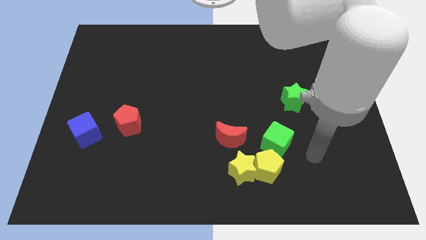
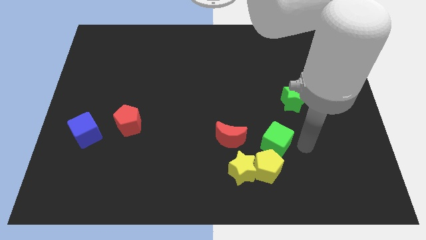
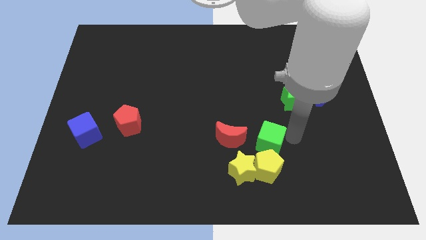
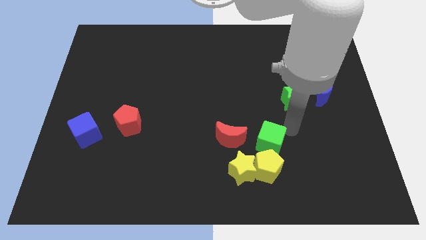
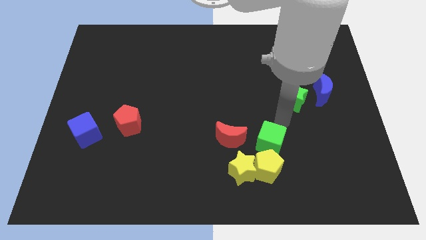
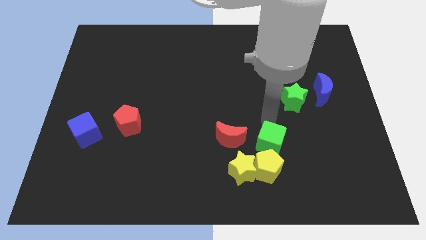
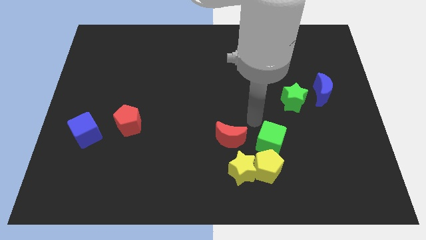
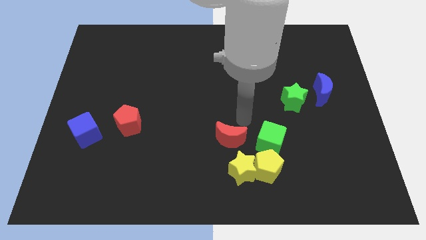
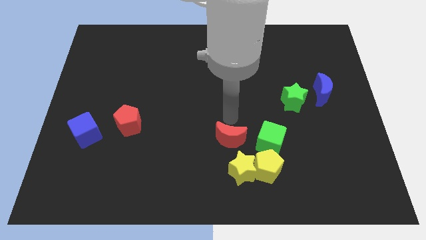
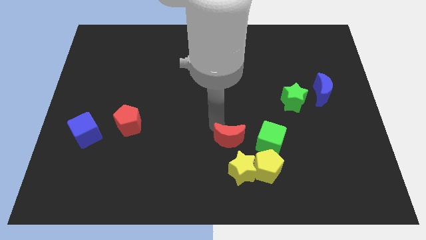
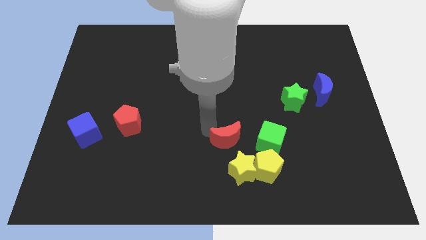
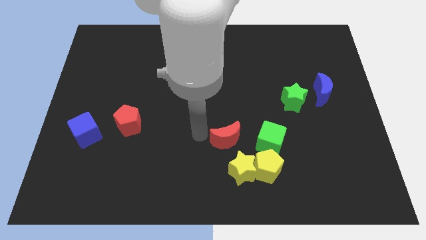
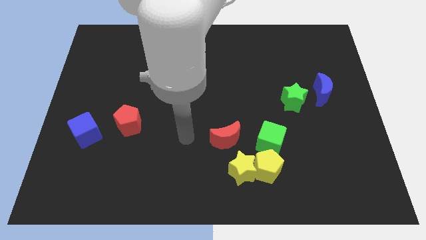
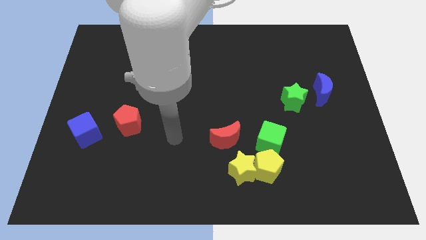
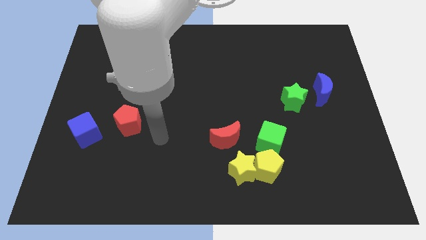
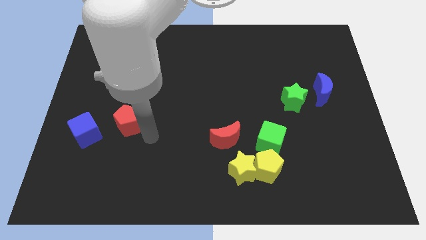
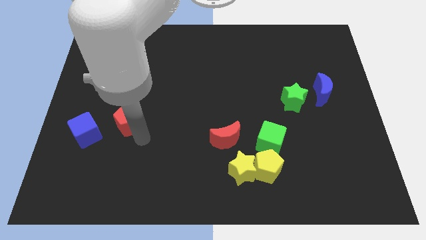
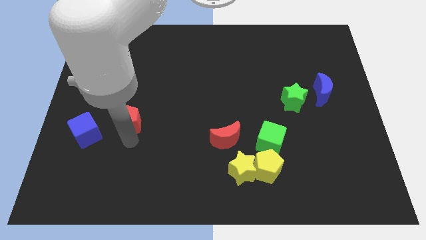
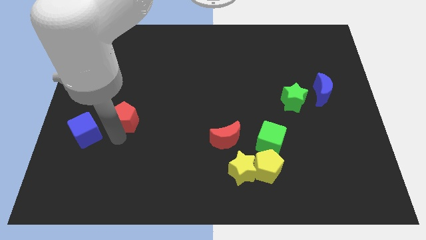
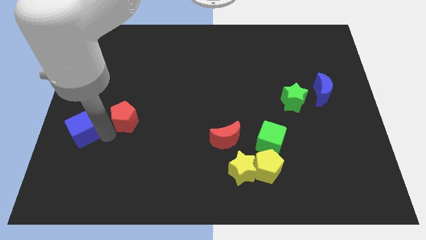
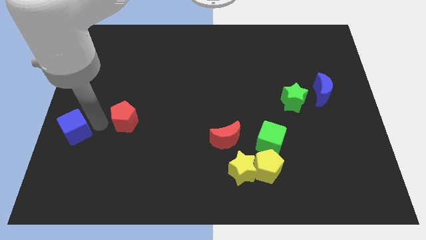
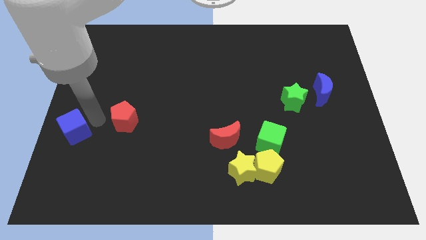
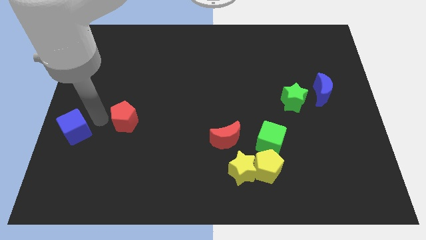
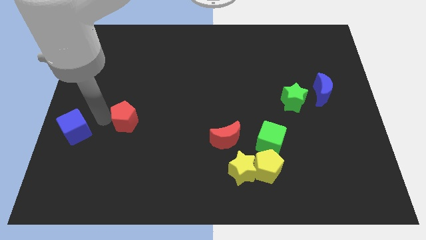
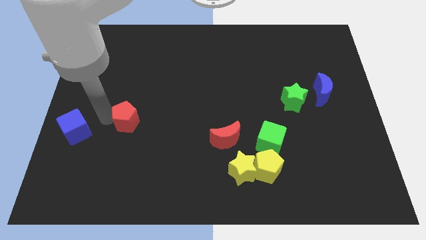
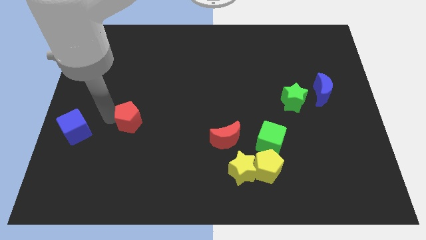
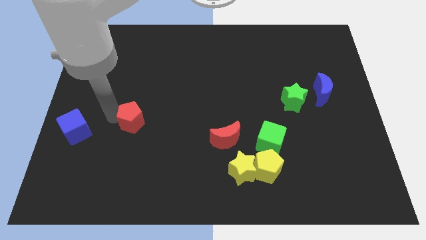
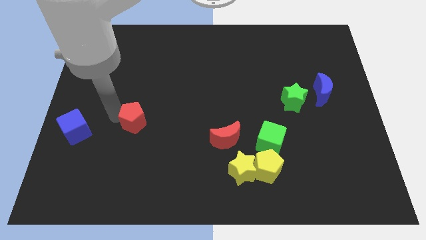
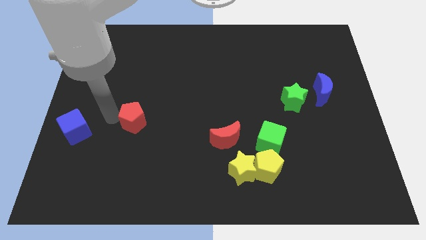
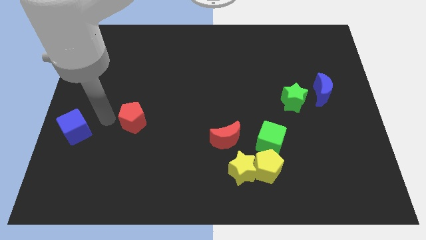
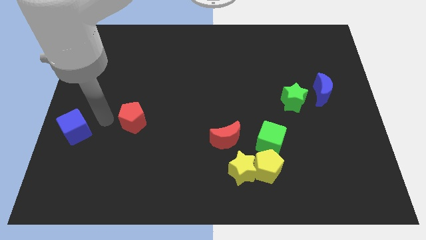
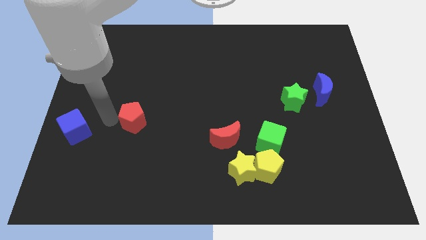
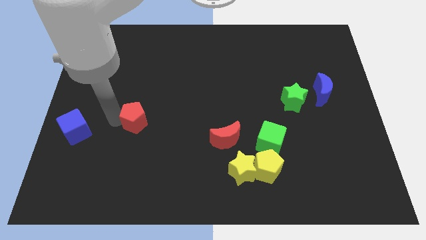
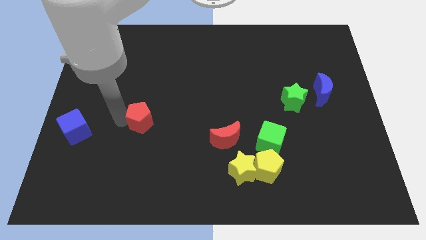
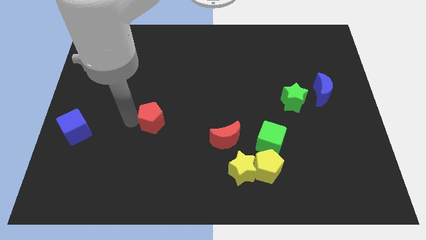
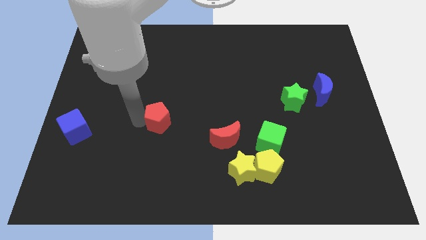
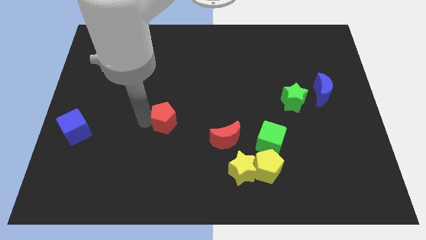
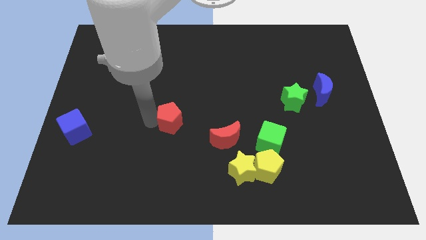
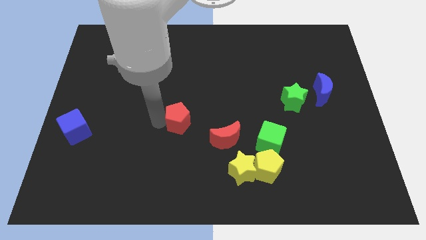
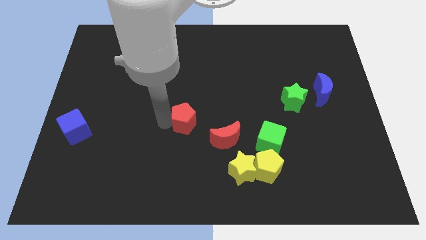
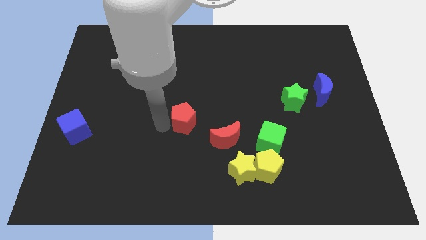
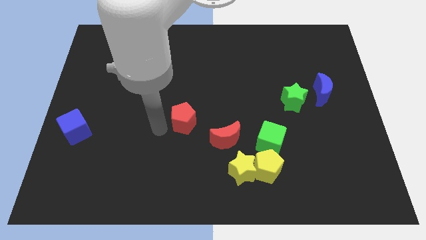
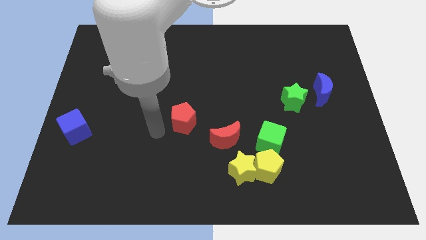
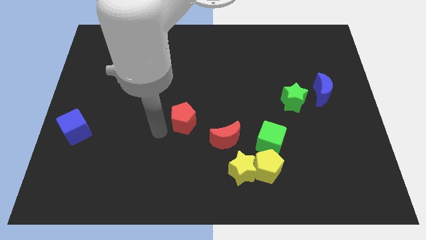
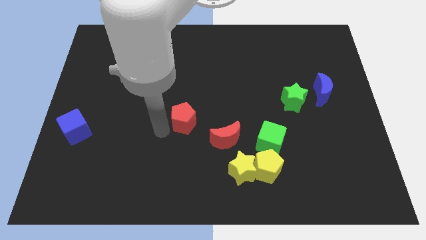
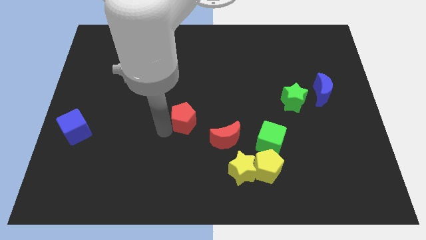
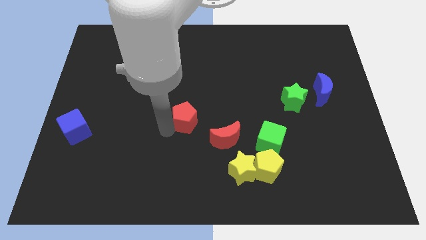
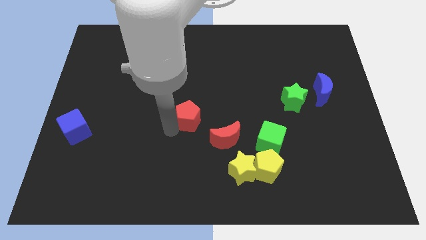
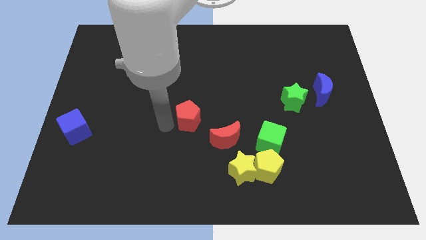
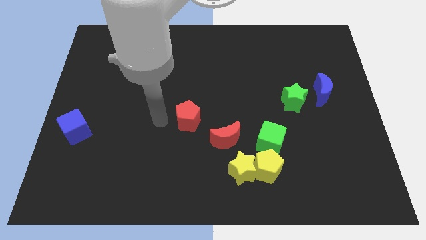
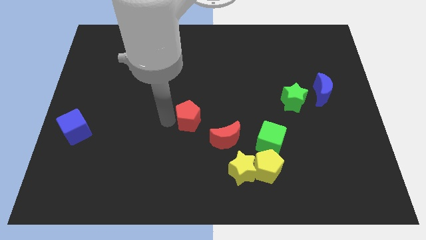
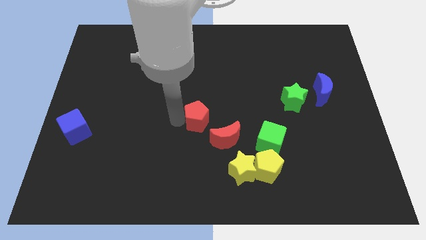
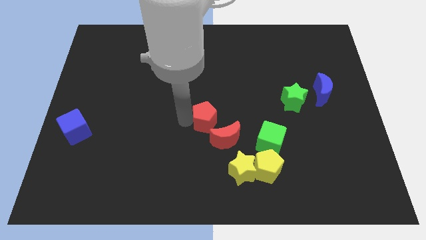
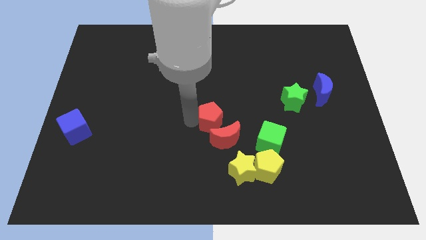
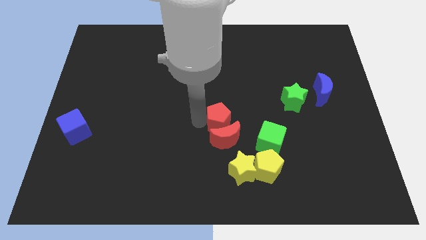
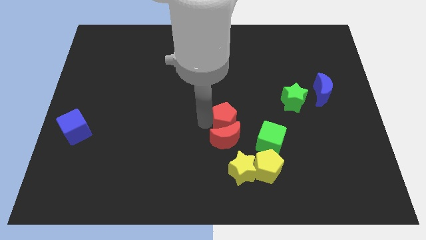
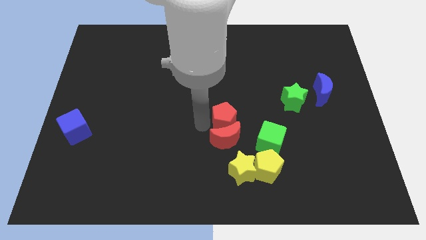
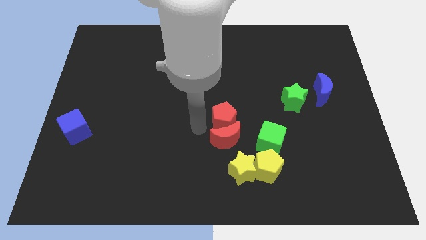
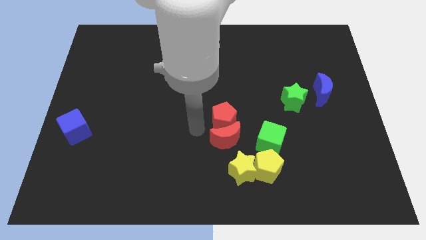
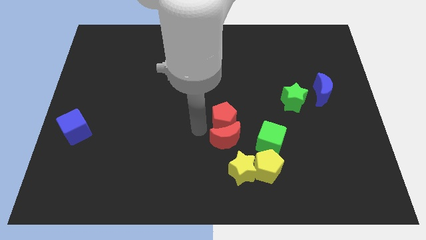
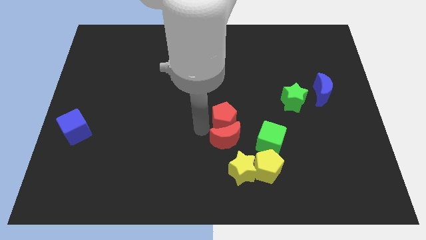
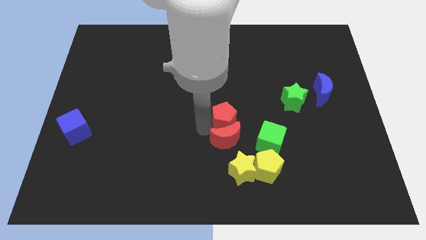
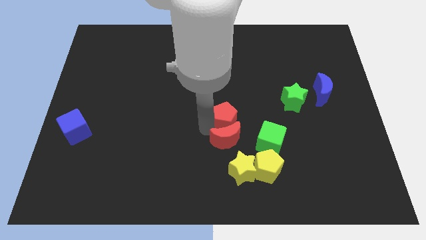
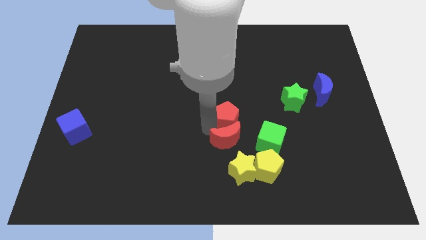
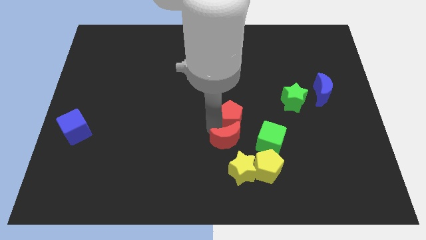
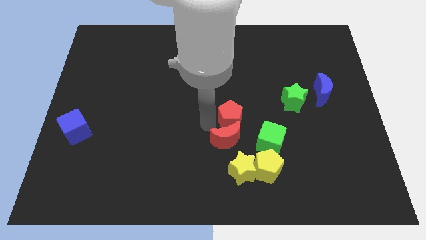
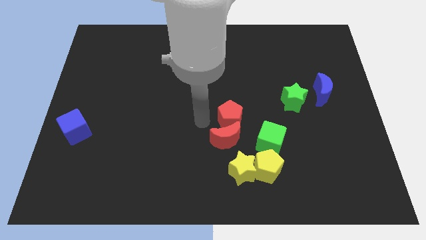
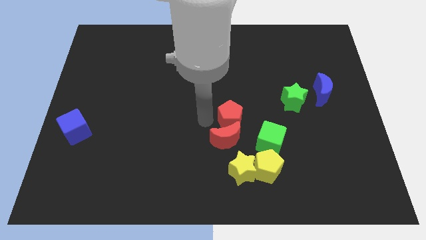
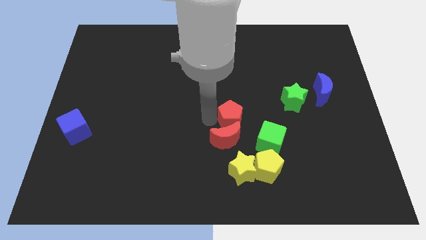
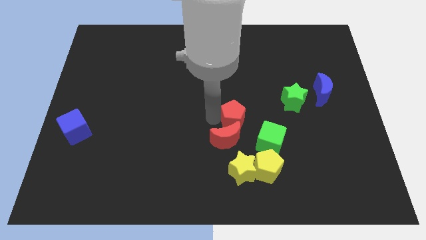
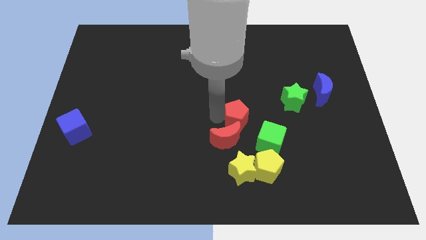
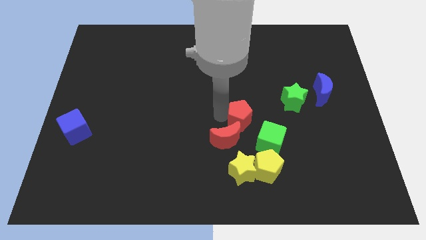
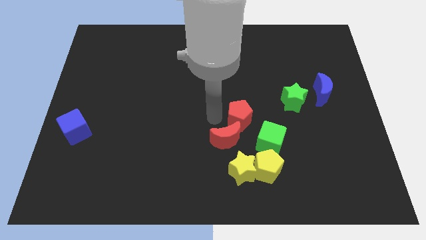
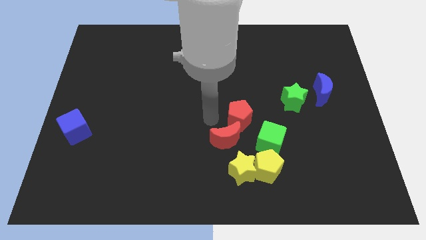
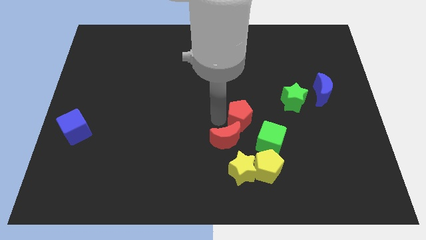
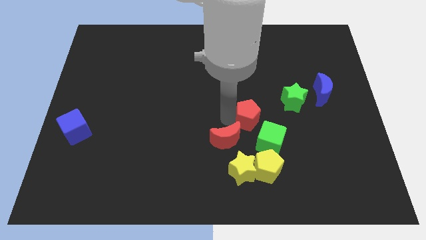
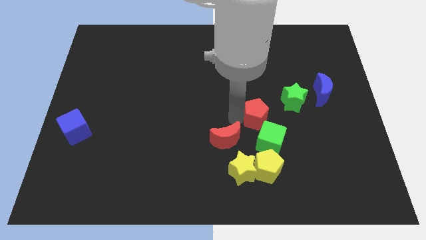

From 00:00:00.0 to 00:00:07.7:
push the red pentagon to the bottom left of the green star
